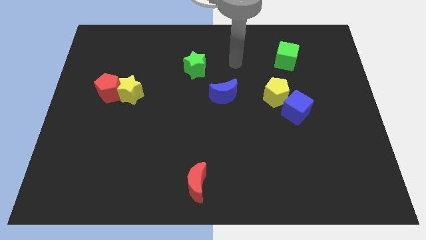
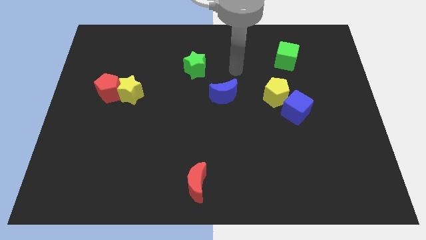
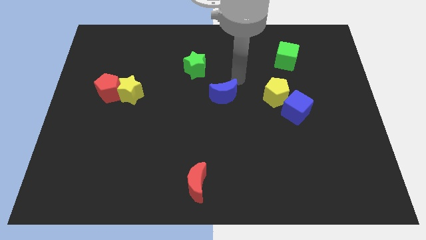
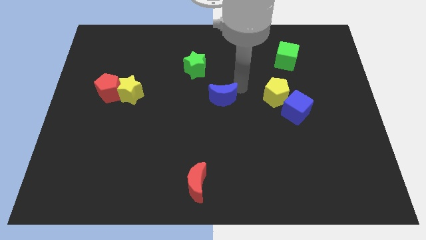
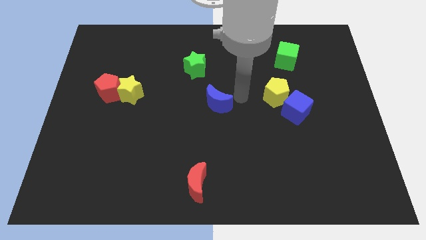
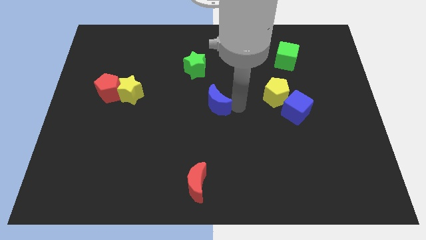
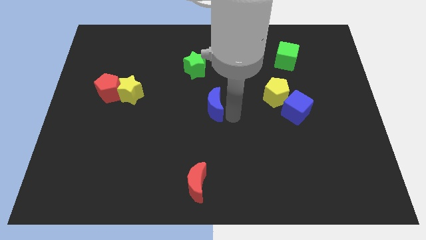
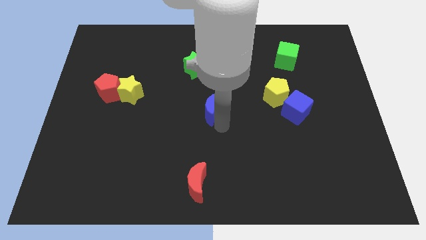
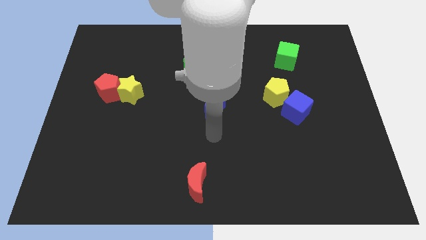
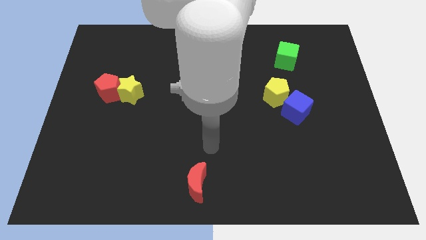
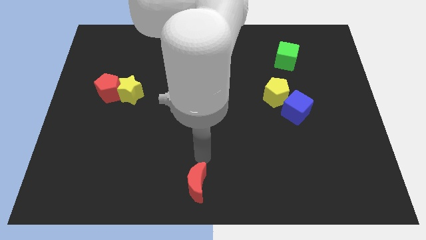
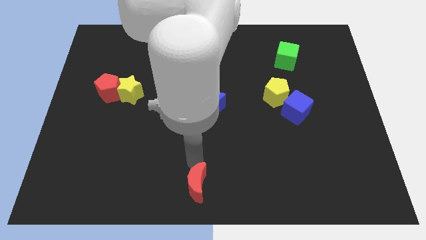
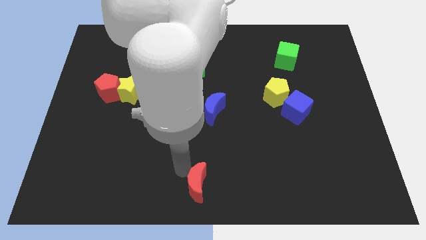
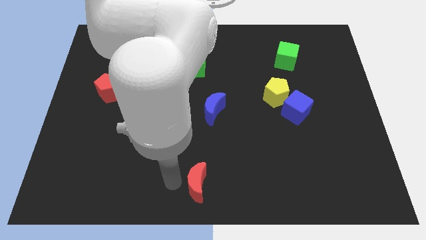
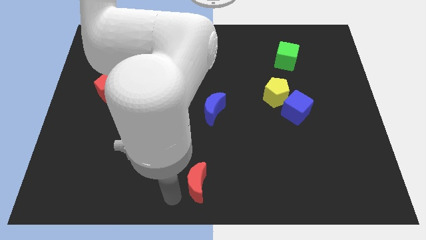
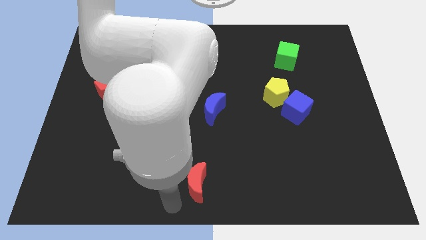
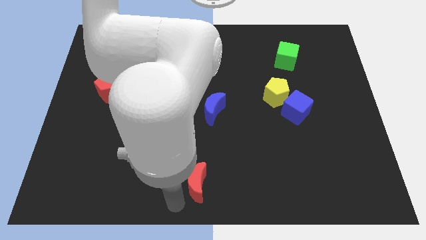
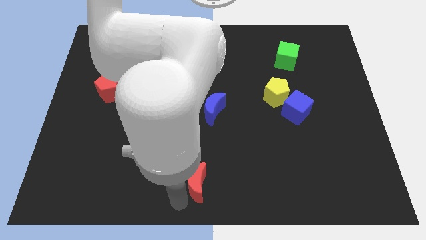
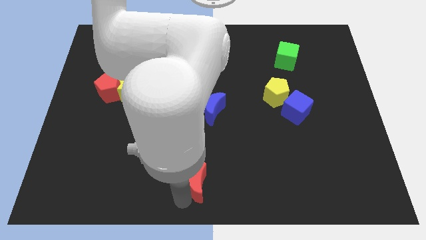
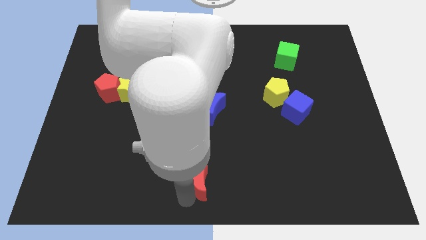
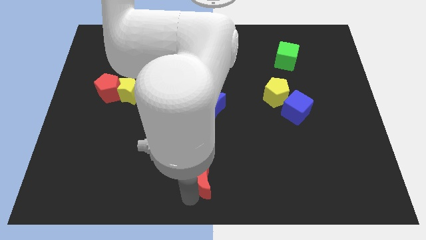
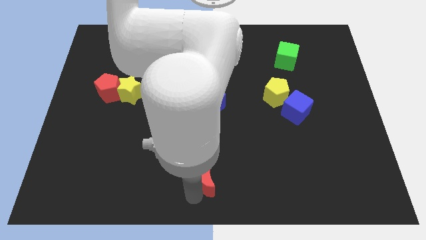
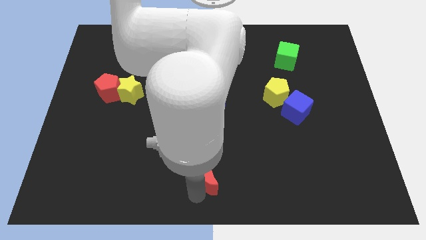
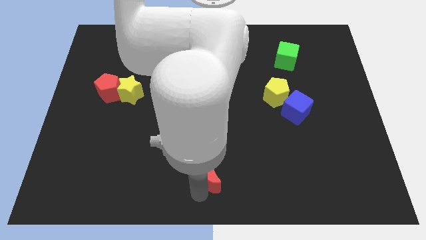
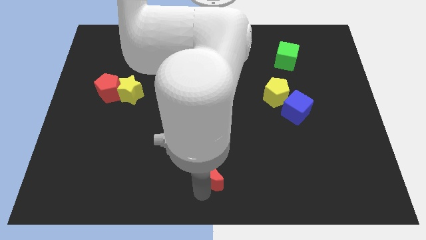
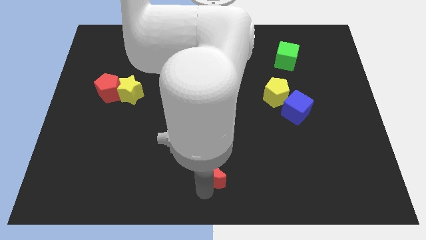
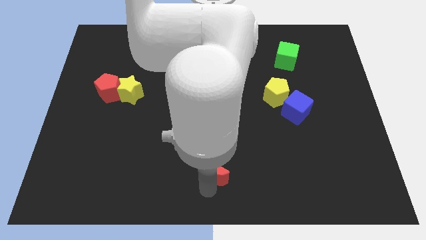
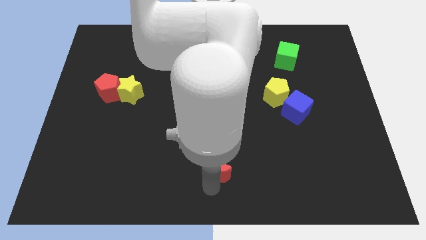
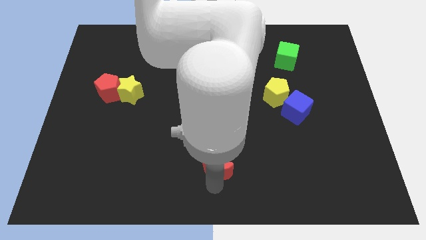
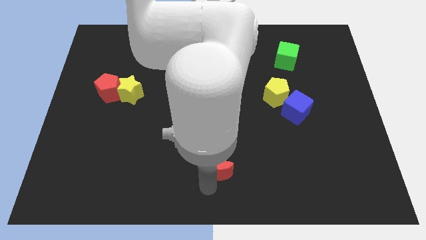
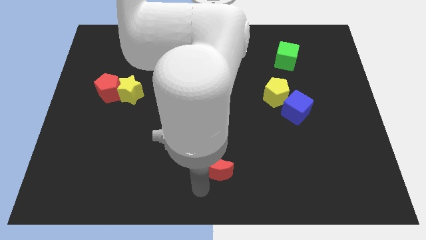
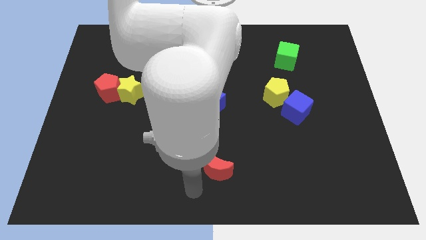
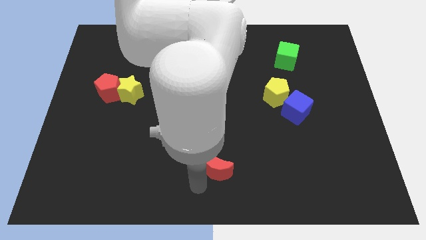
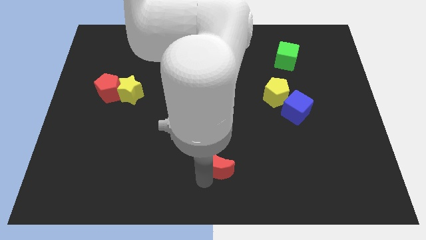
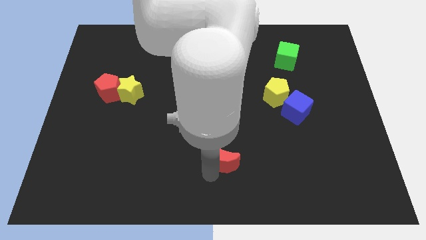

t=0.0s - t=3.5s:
push the red moon diagonally up and to the right somewhat

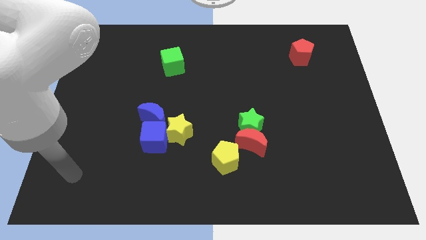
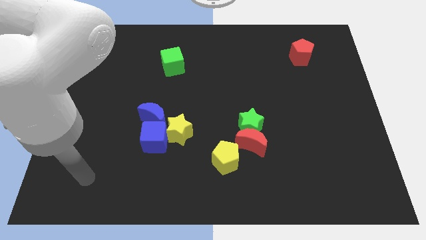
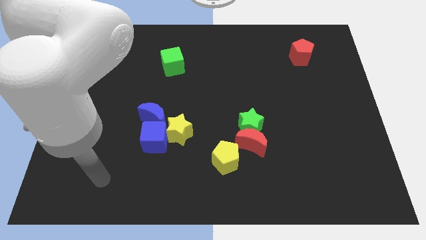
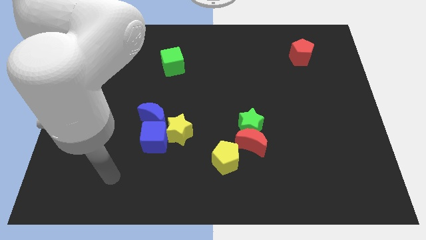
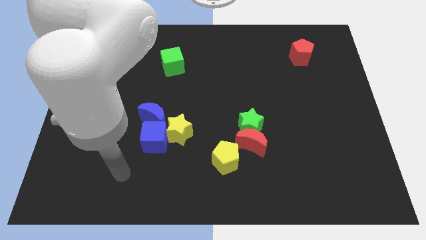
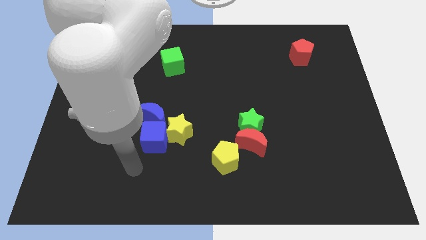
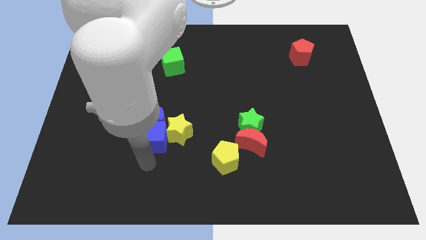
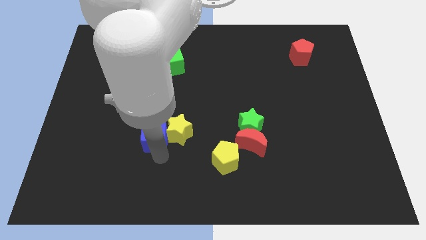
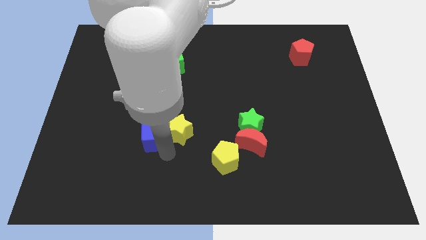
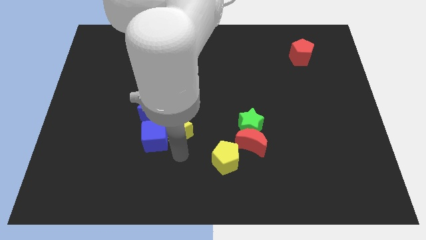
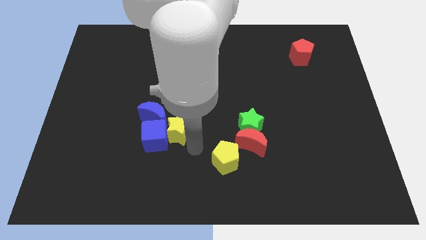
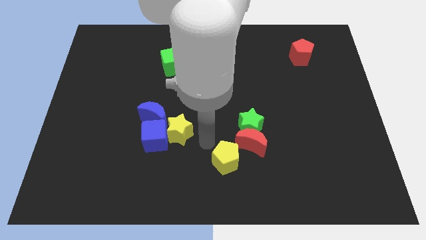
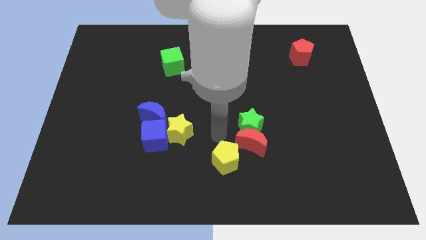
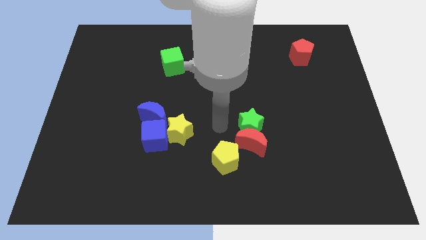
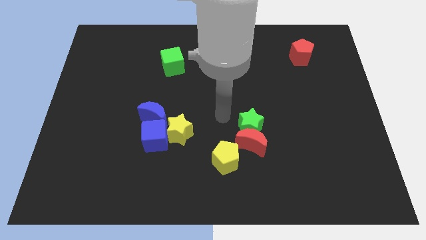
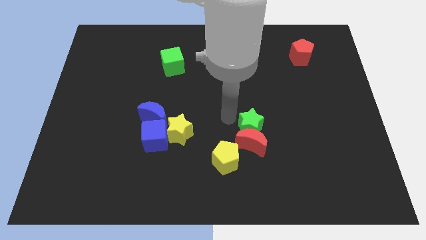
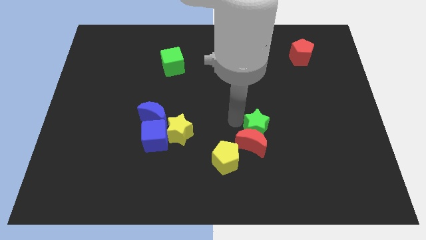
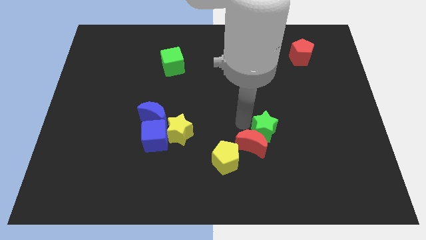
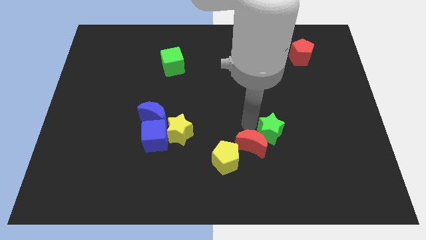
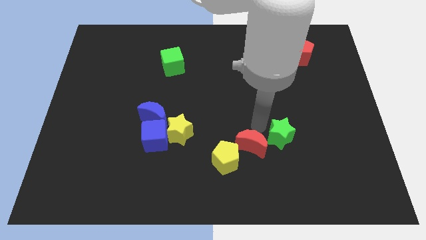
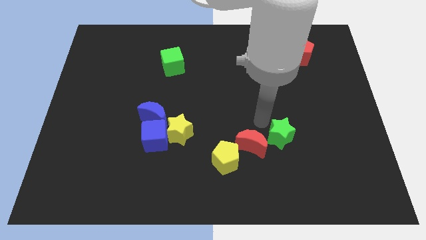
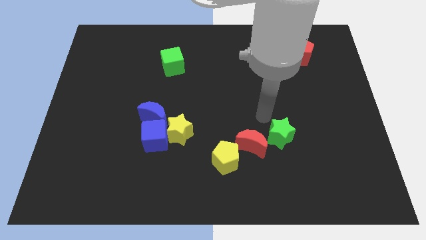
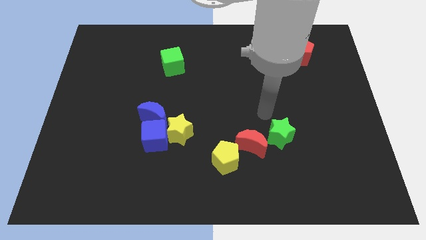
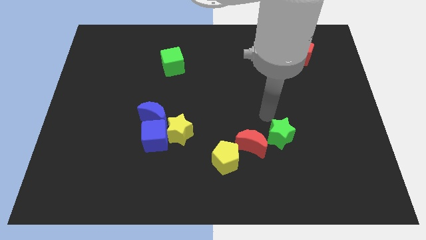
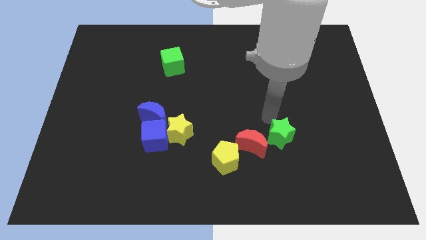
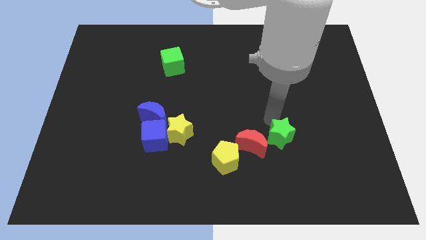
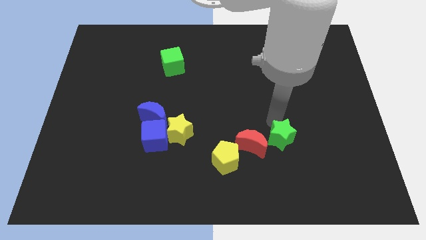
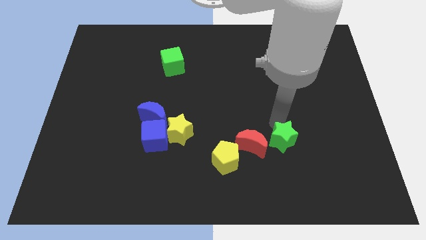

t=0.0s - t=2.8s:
slightly slide the green star downwards and to the right diagonally

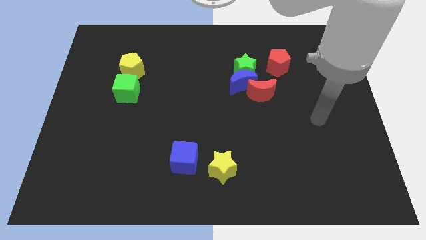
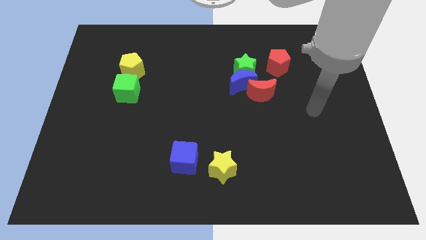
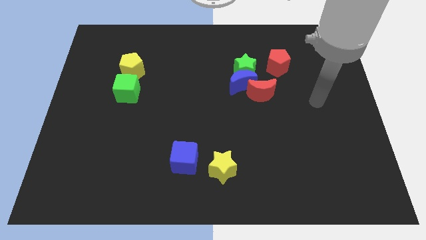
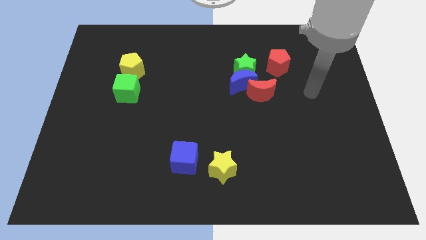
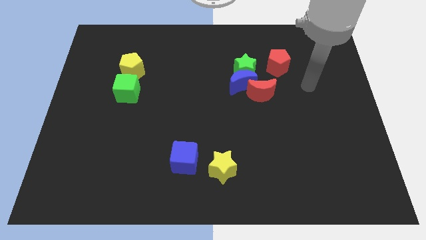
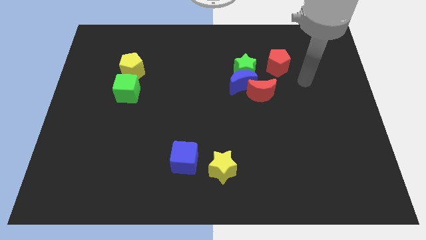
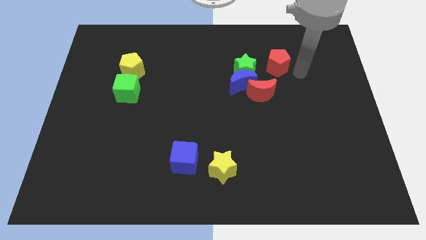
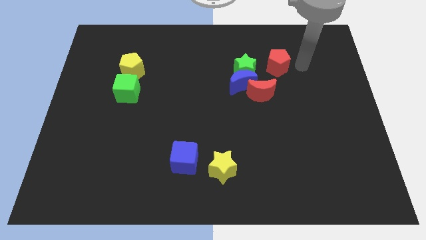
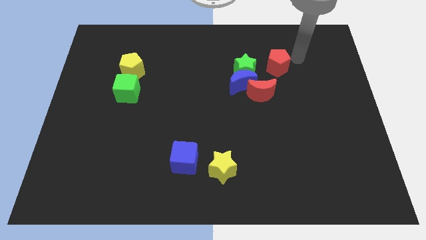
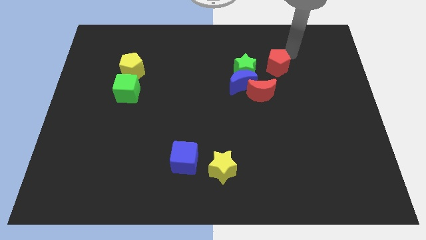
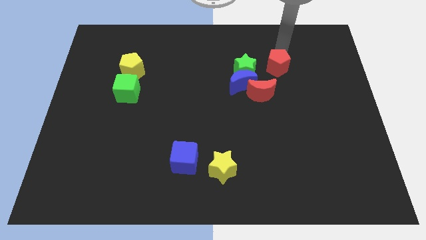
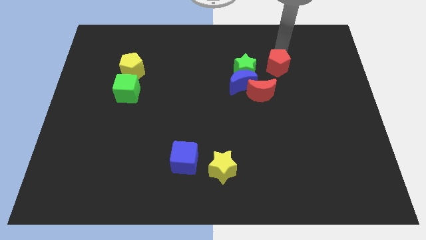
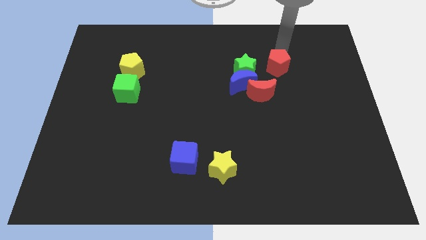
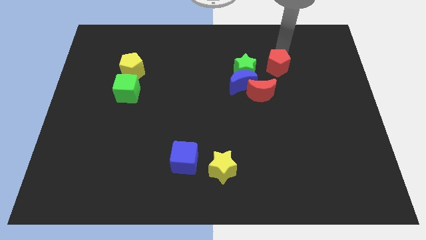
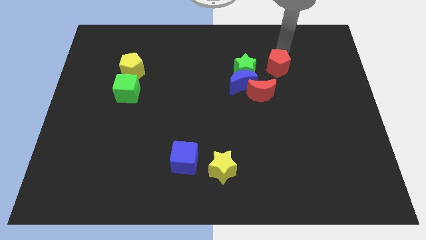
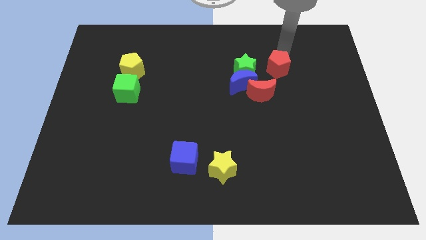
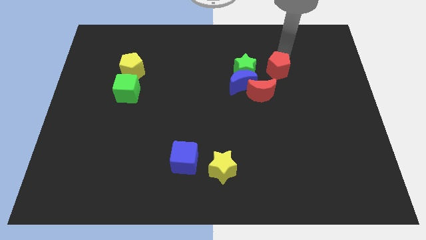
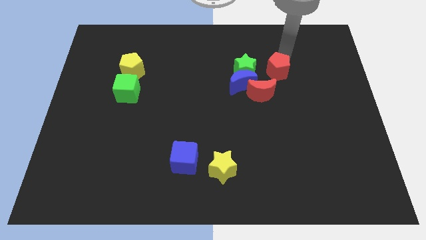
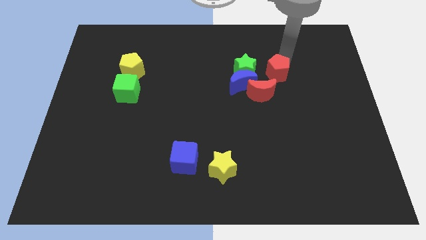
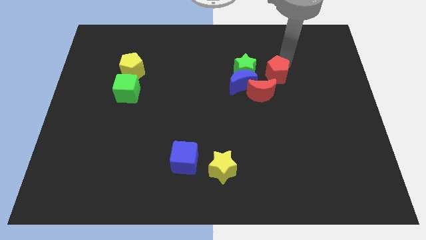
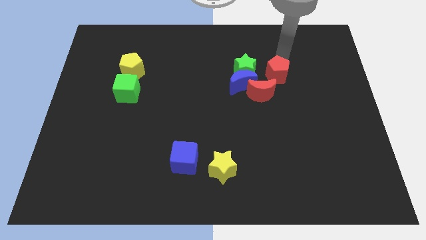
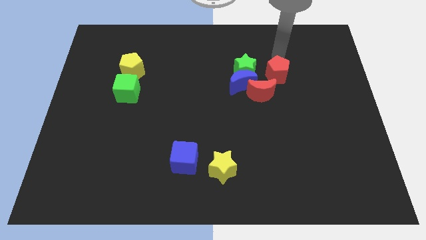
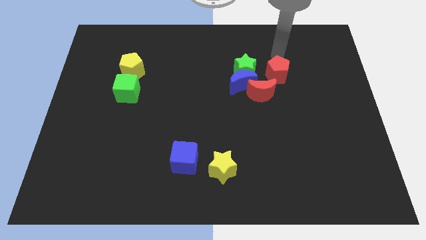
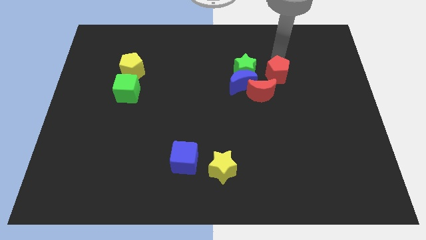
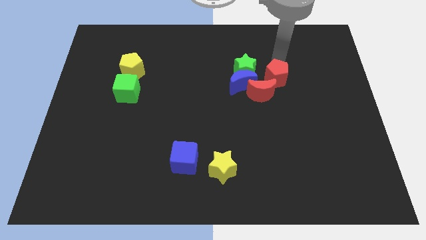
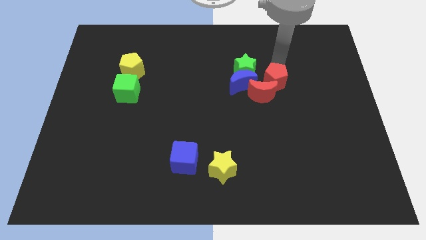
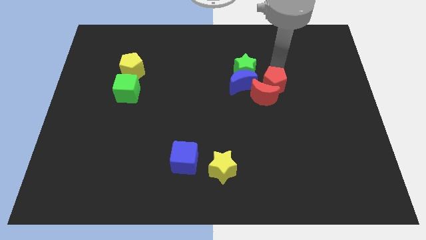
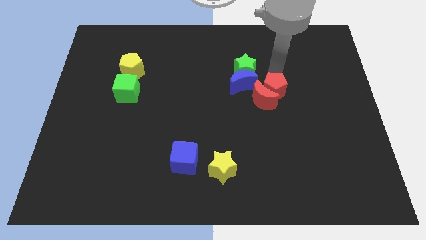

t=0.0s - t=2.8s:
slightly push the red pentagon down
